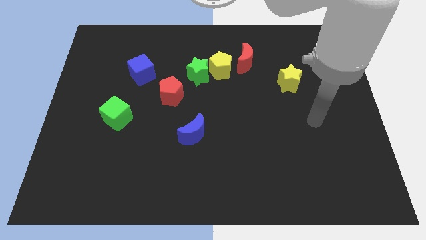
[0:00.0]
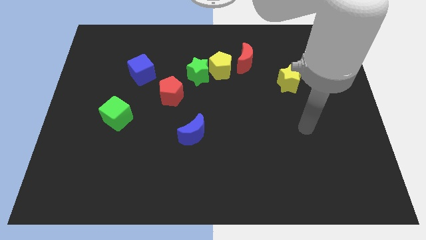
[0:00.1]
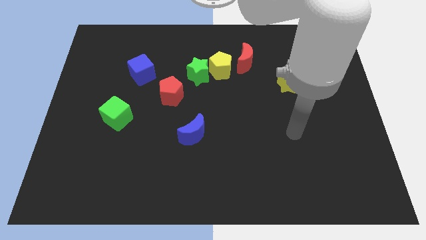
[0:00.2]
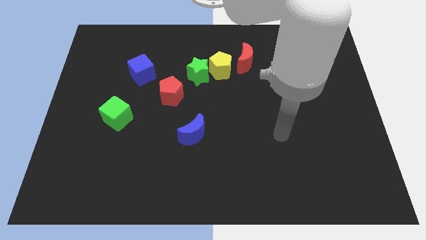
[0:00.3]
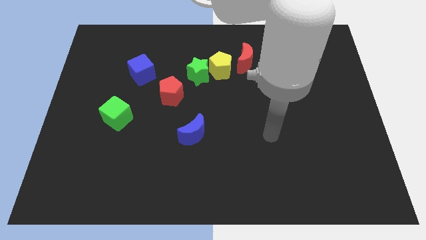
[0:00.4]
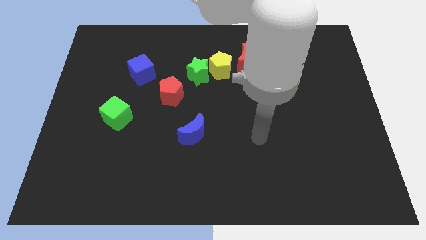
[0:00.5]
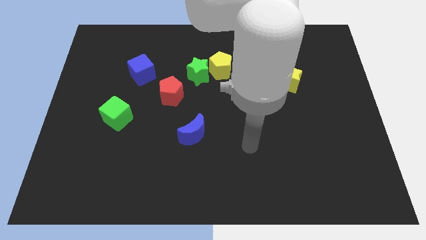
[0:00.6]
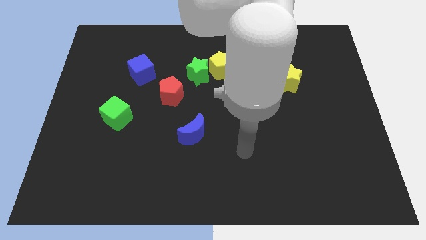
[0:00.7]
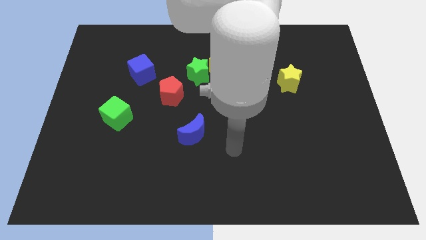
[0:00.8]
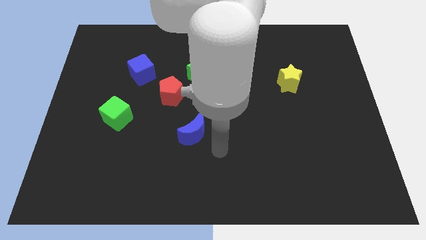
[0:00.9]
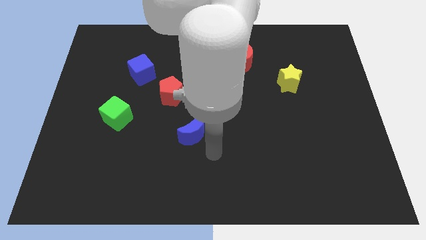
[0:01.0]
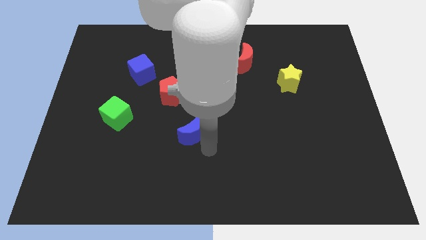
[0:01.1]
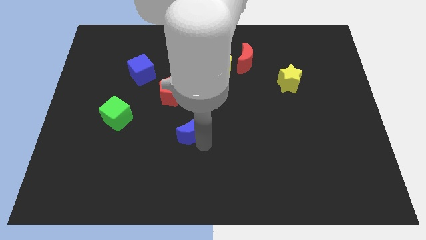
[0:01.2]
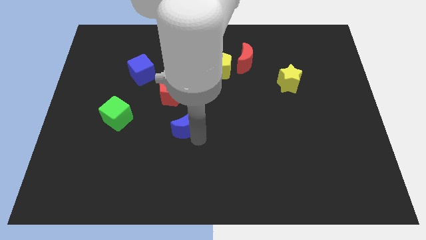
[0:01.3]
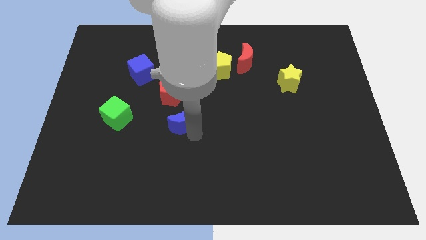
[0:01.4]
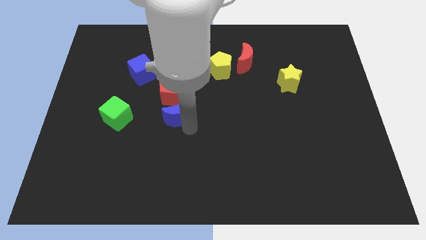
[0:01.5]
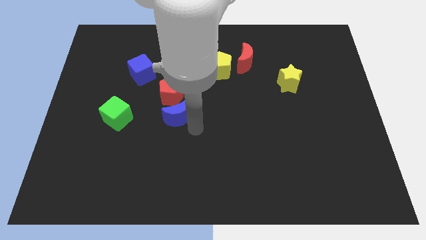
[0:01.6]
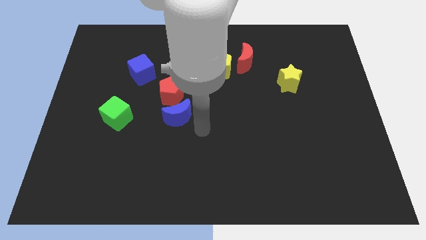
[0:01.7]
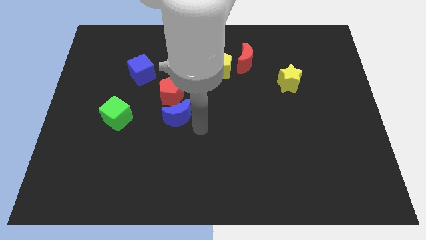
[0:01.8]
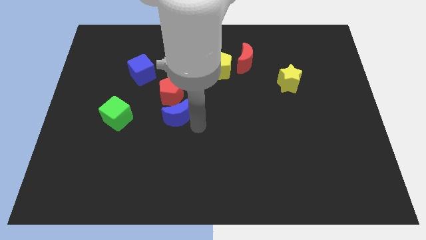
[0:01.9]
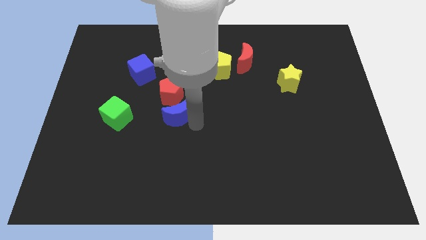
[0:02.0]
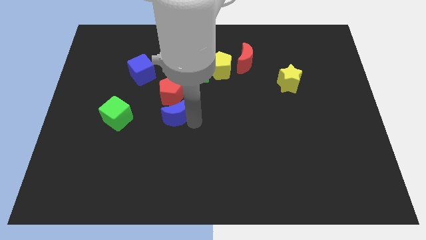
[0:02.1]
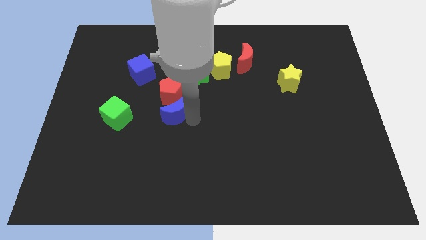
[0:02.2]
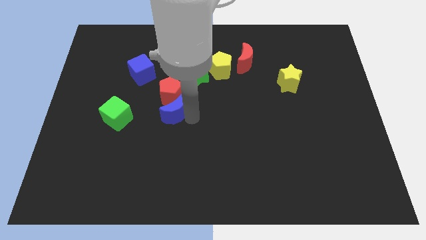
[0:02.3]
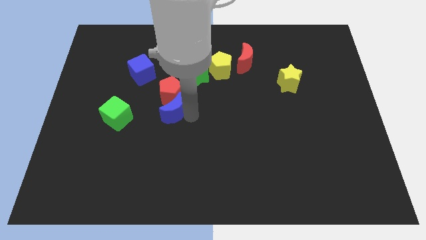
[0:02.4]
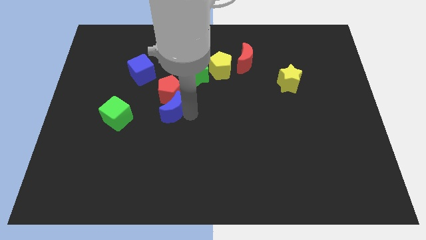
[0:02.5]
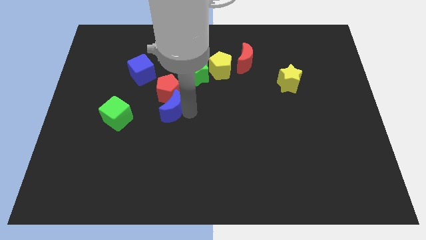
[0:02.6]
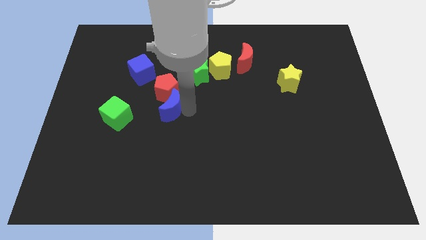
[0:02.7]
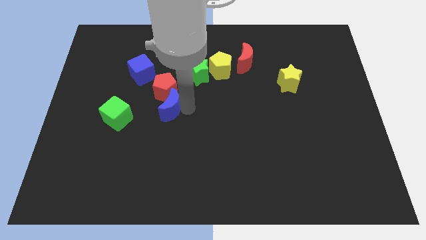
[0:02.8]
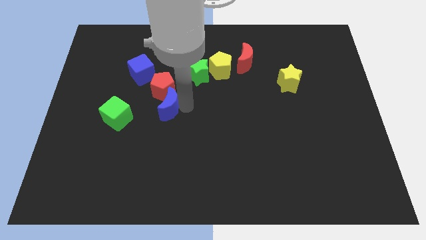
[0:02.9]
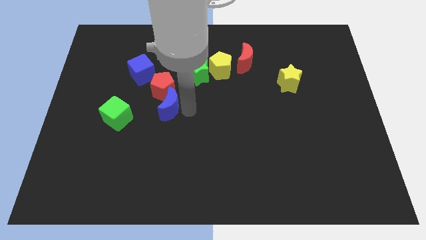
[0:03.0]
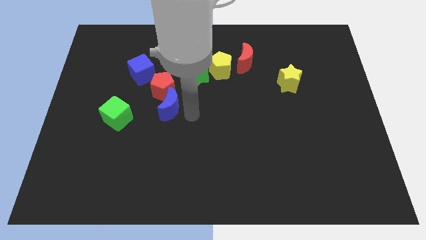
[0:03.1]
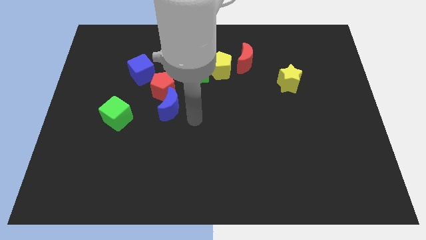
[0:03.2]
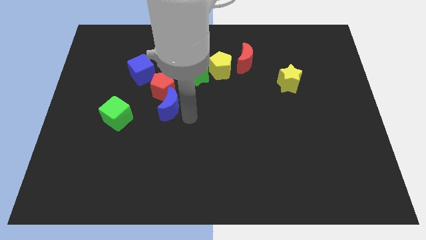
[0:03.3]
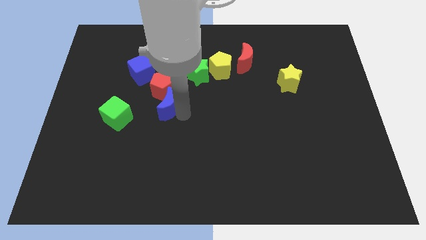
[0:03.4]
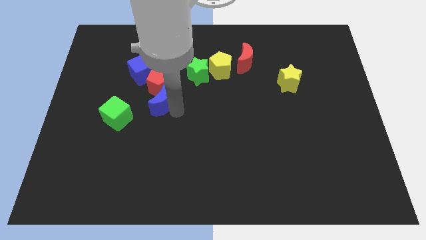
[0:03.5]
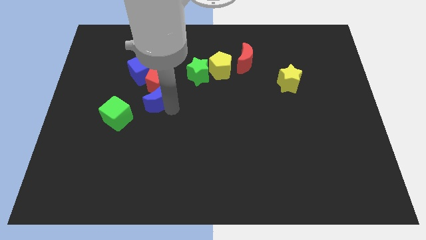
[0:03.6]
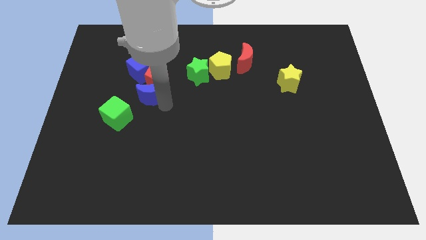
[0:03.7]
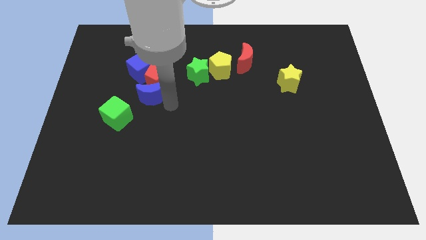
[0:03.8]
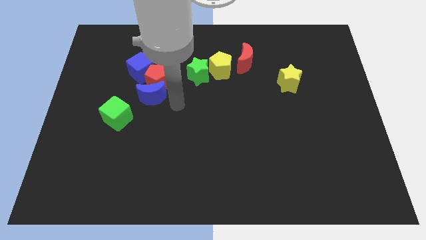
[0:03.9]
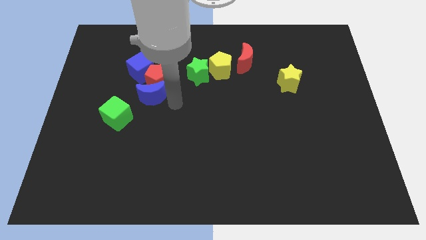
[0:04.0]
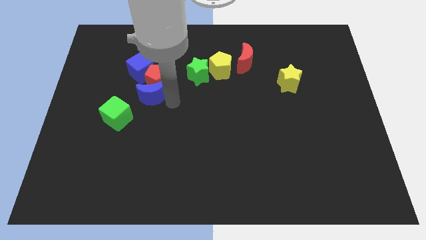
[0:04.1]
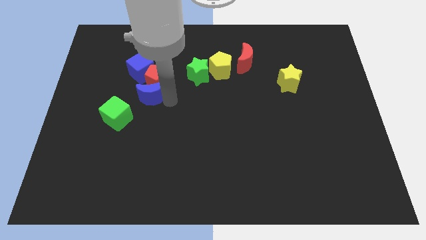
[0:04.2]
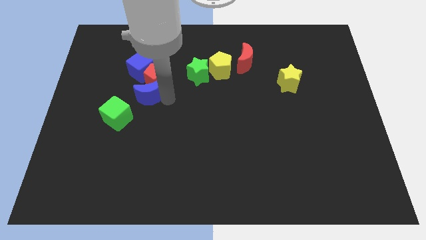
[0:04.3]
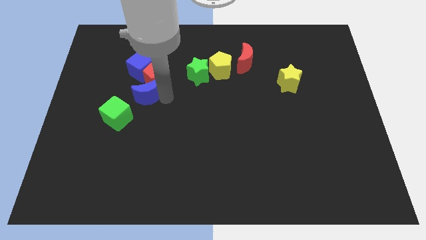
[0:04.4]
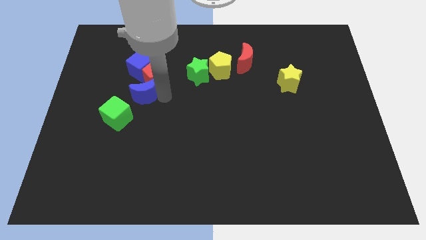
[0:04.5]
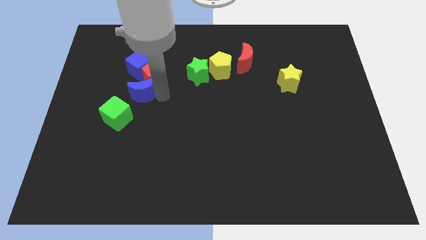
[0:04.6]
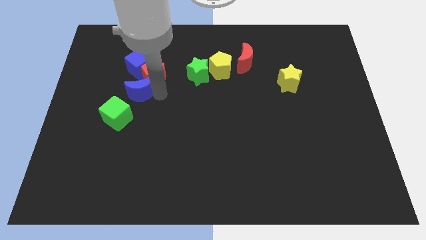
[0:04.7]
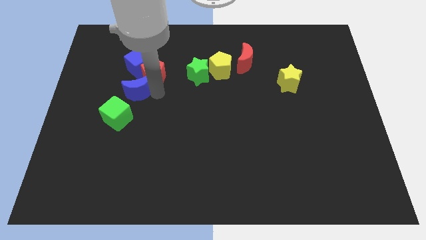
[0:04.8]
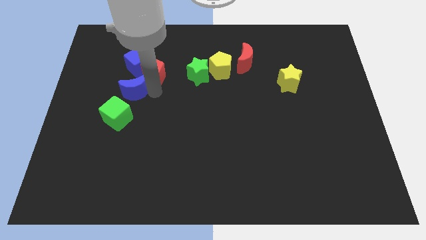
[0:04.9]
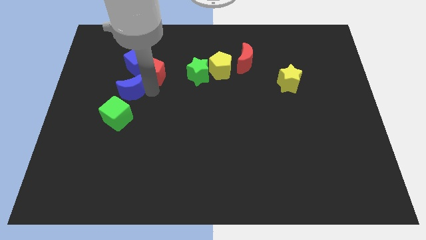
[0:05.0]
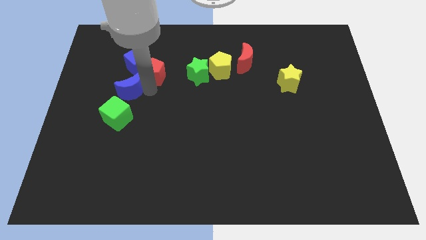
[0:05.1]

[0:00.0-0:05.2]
push the blue moon upwards and then to the left

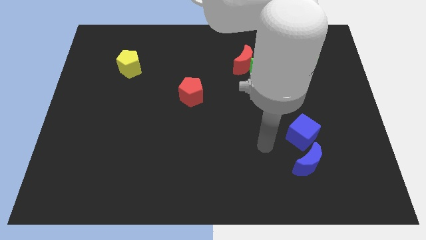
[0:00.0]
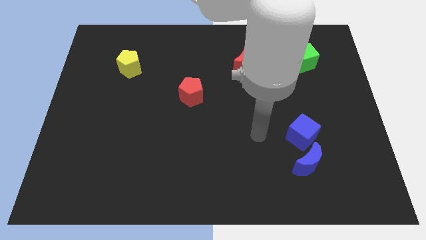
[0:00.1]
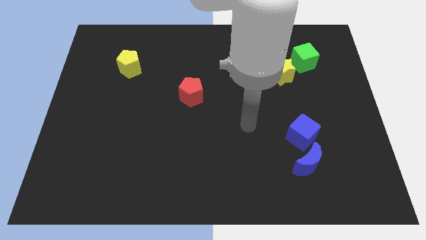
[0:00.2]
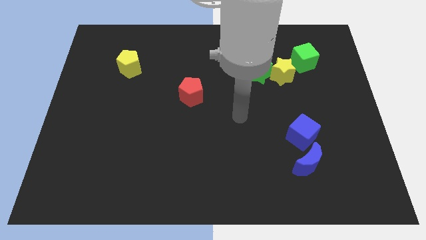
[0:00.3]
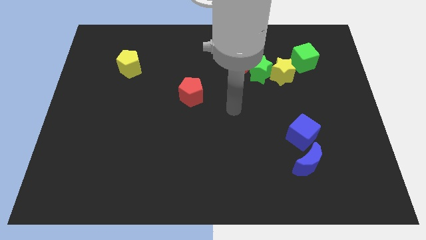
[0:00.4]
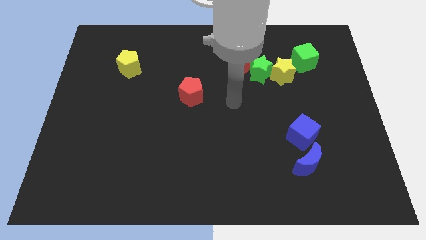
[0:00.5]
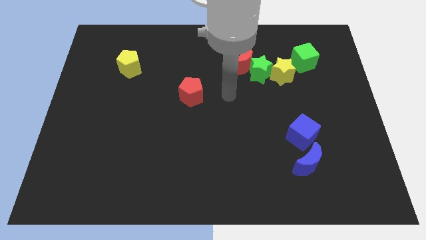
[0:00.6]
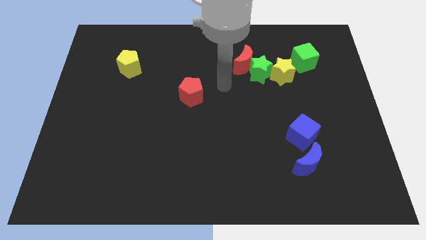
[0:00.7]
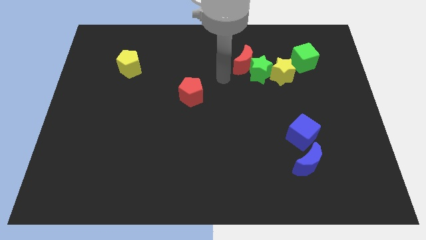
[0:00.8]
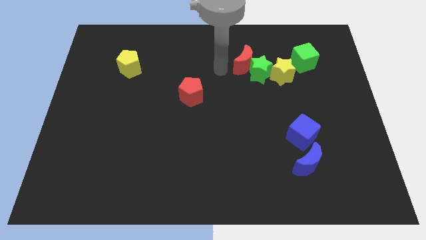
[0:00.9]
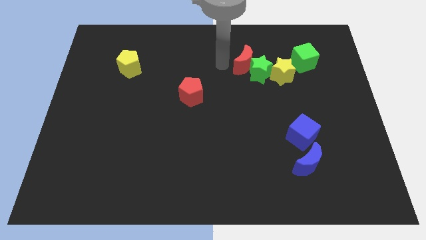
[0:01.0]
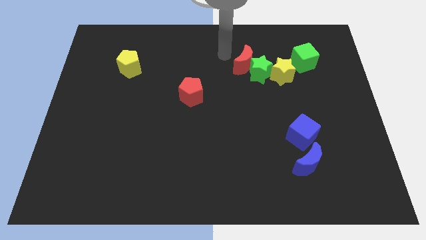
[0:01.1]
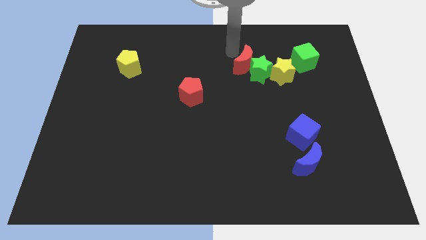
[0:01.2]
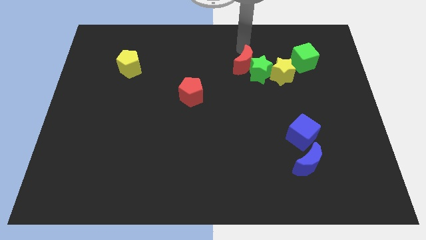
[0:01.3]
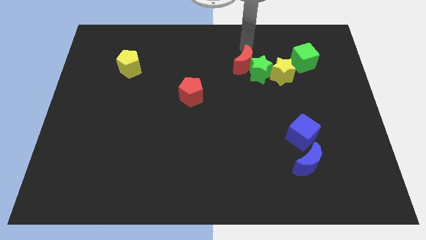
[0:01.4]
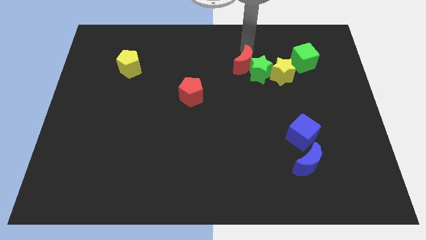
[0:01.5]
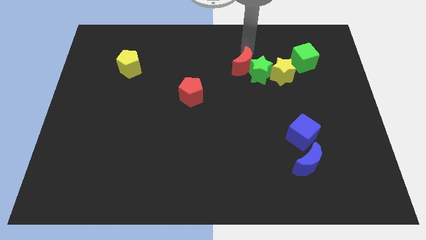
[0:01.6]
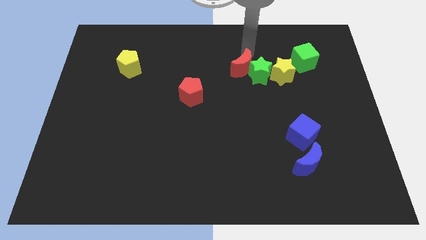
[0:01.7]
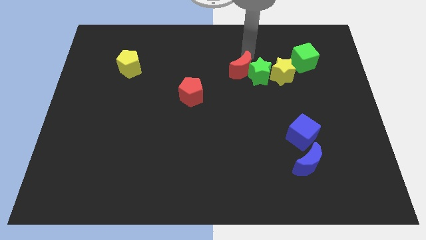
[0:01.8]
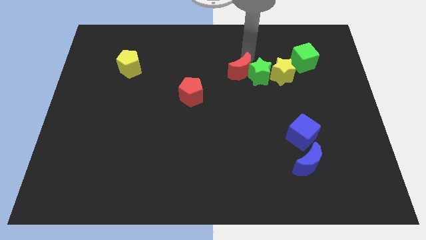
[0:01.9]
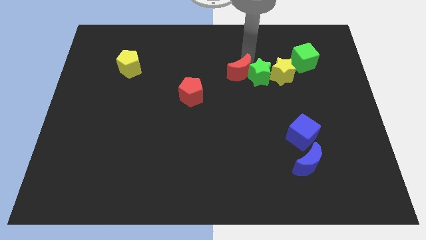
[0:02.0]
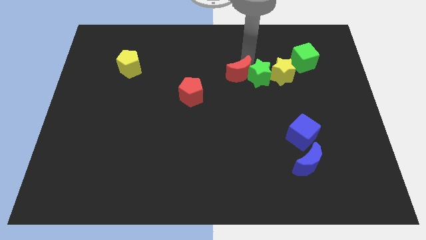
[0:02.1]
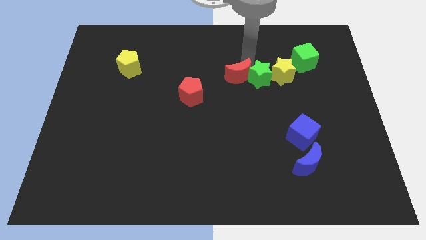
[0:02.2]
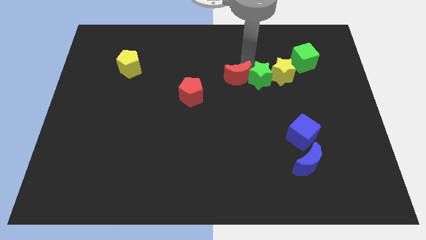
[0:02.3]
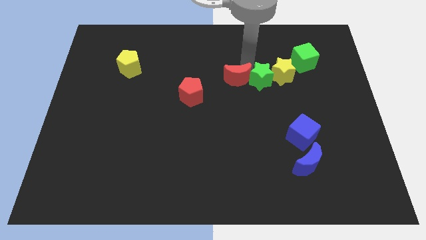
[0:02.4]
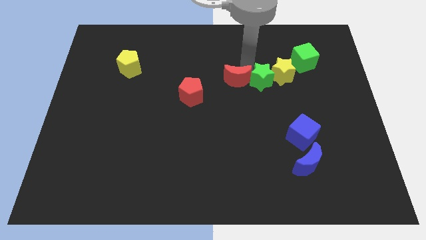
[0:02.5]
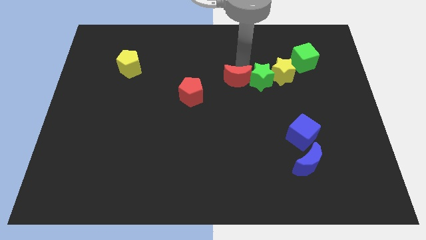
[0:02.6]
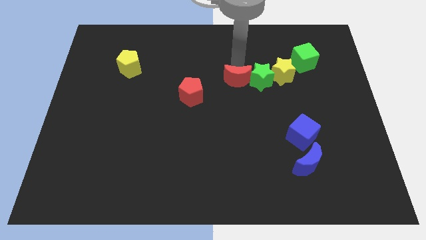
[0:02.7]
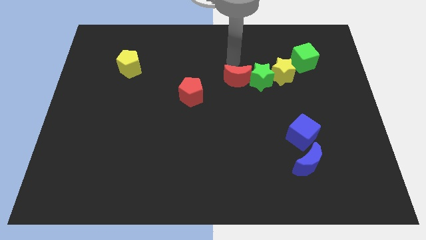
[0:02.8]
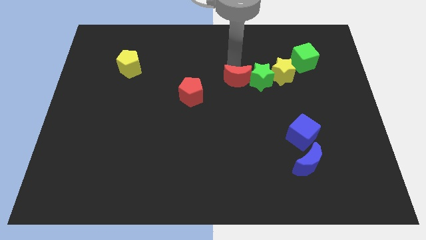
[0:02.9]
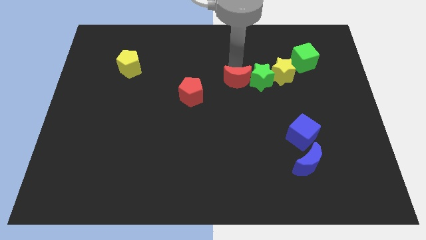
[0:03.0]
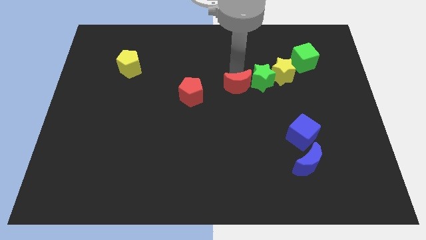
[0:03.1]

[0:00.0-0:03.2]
slightly move the red moon downwards

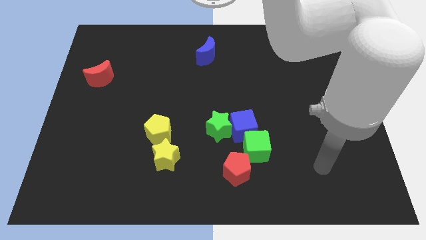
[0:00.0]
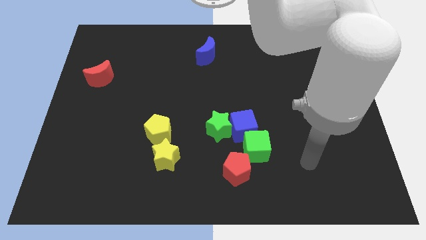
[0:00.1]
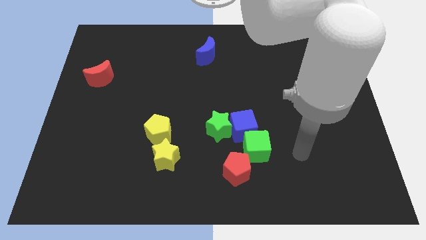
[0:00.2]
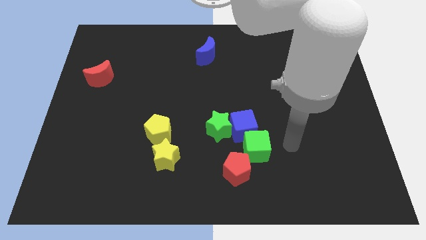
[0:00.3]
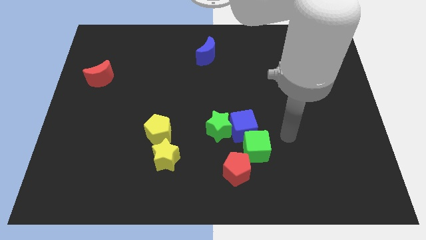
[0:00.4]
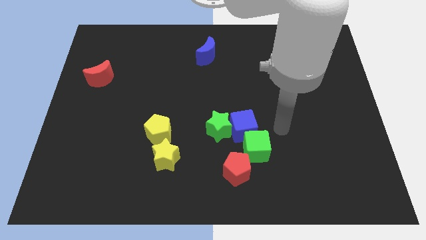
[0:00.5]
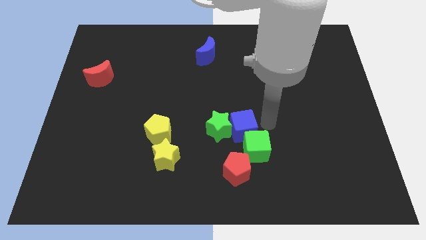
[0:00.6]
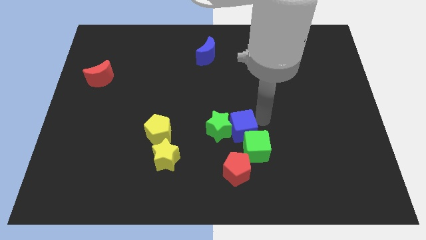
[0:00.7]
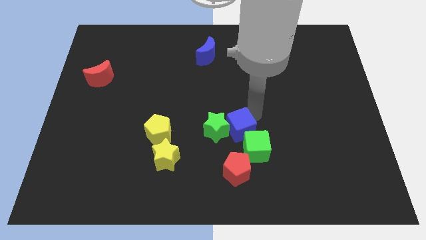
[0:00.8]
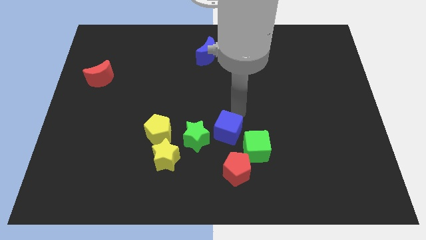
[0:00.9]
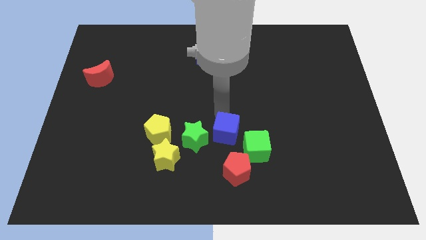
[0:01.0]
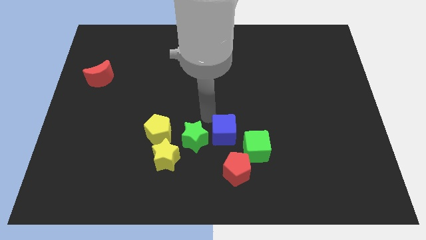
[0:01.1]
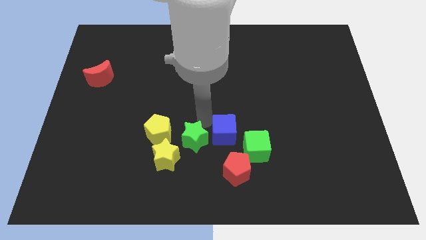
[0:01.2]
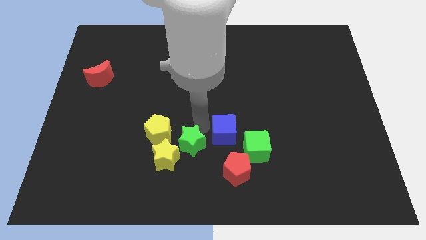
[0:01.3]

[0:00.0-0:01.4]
slightly slide the green star down and to the left
